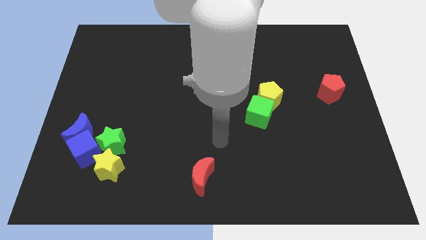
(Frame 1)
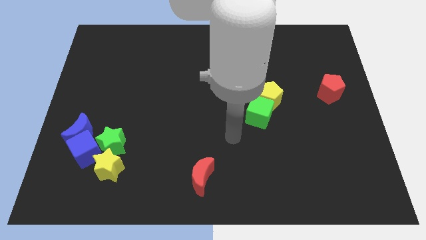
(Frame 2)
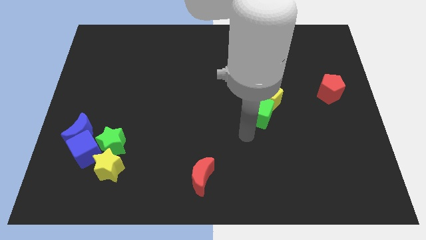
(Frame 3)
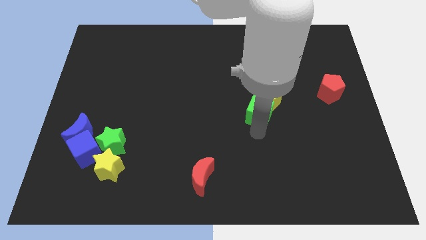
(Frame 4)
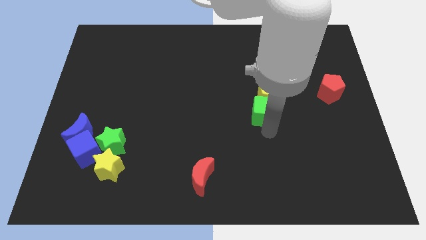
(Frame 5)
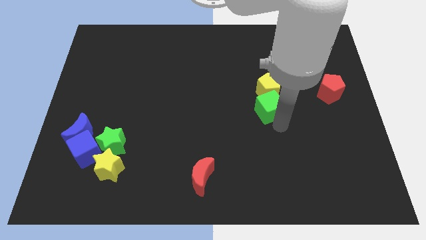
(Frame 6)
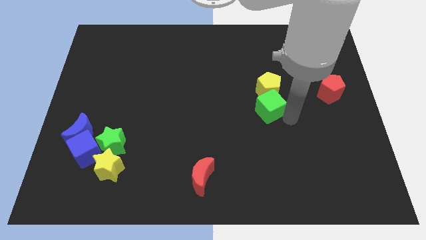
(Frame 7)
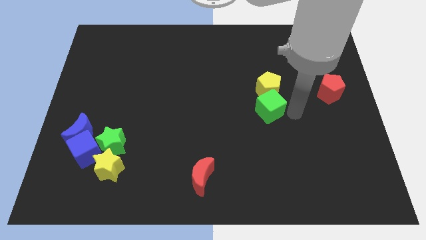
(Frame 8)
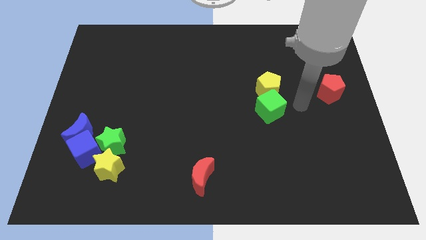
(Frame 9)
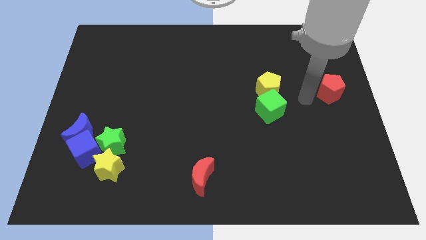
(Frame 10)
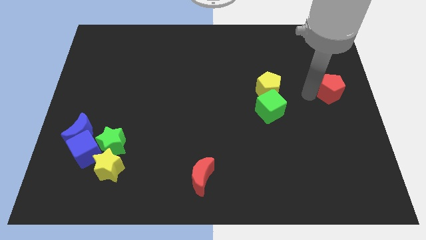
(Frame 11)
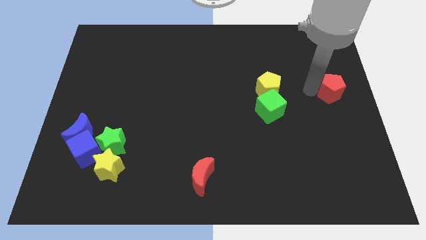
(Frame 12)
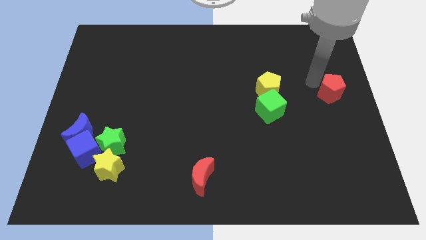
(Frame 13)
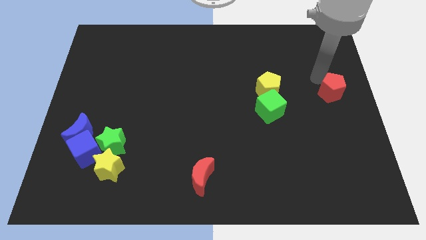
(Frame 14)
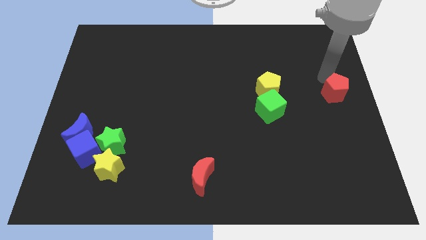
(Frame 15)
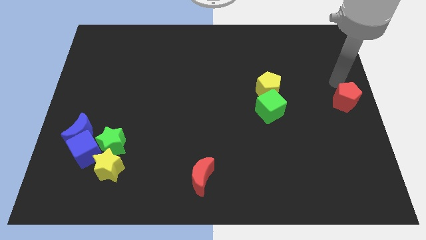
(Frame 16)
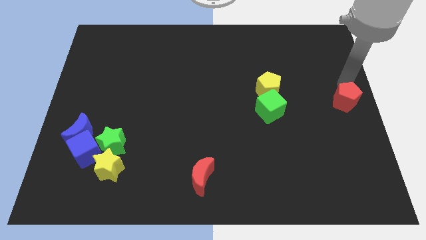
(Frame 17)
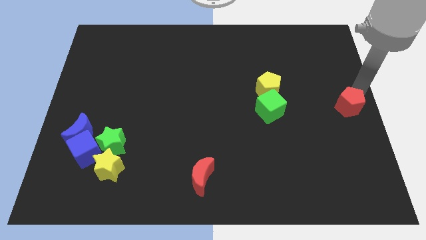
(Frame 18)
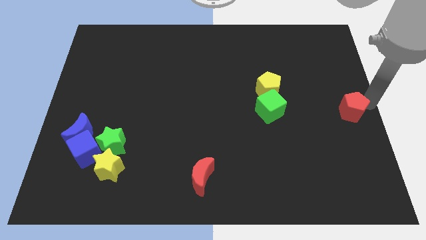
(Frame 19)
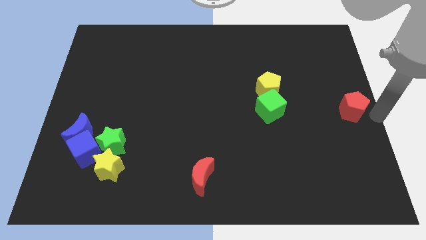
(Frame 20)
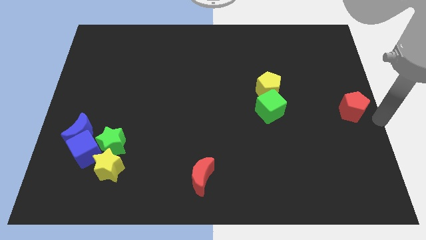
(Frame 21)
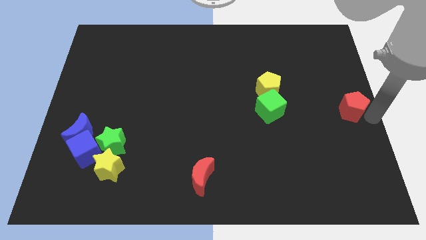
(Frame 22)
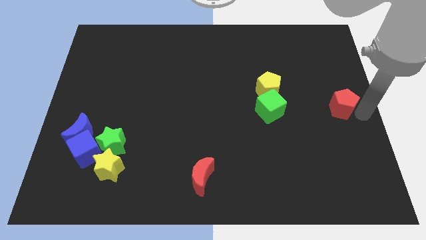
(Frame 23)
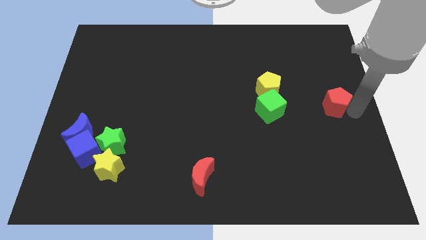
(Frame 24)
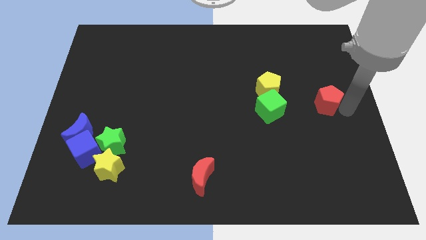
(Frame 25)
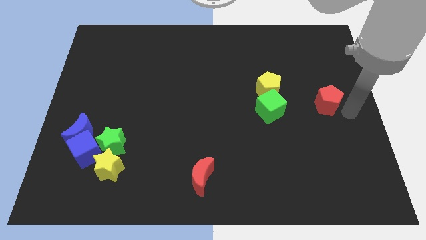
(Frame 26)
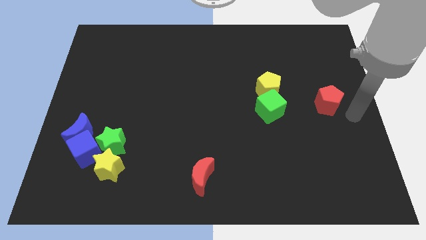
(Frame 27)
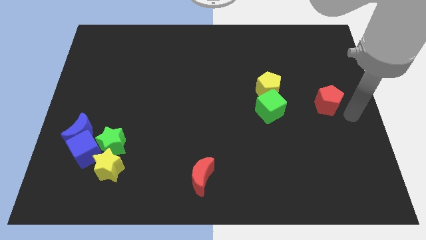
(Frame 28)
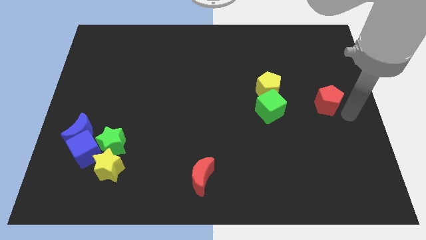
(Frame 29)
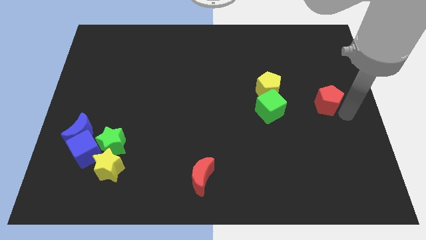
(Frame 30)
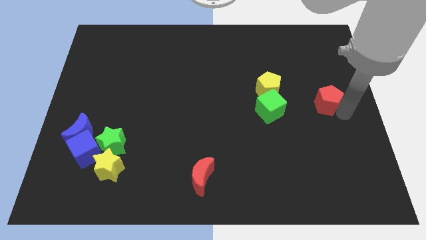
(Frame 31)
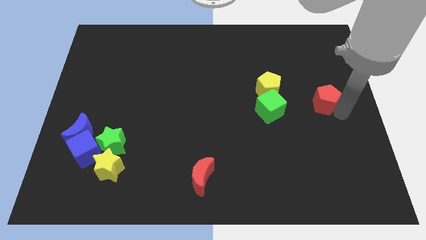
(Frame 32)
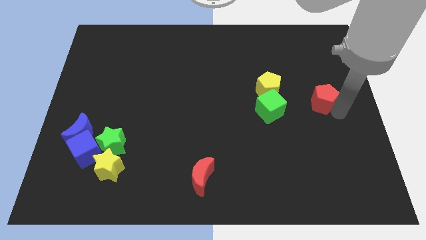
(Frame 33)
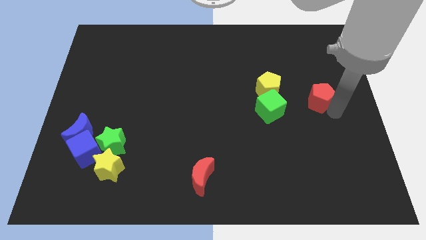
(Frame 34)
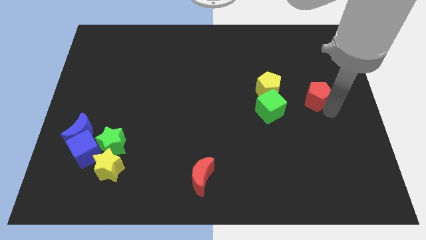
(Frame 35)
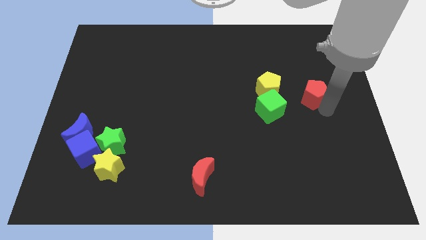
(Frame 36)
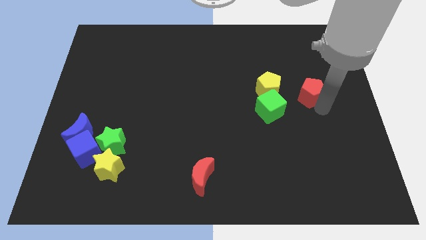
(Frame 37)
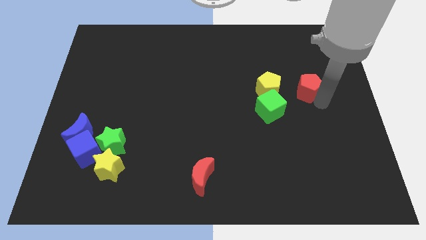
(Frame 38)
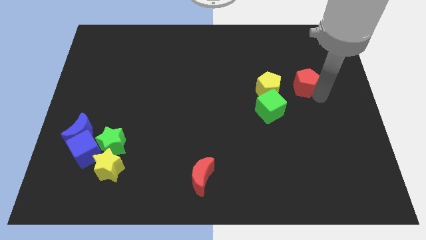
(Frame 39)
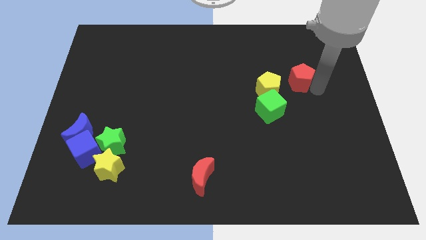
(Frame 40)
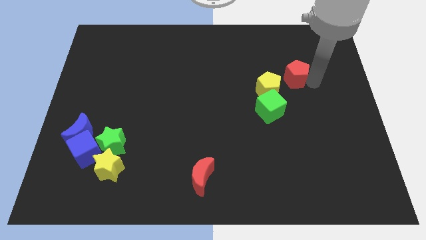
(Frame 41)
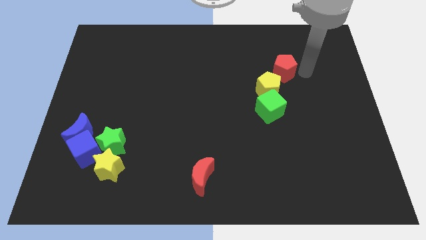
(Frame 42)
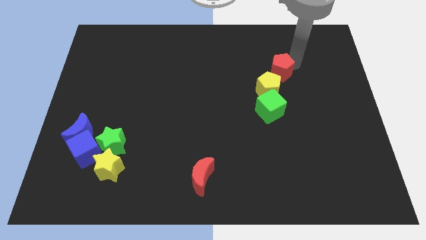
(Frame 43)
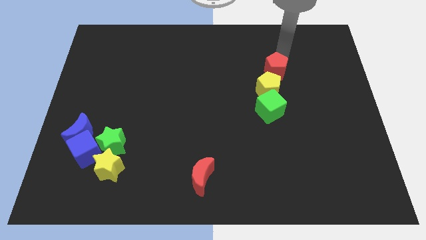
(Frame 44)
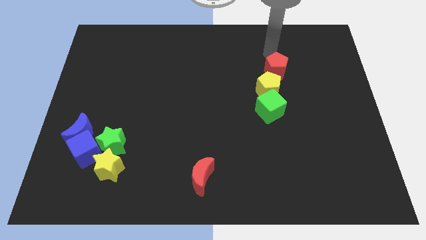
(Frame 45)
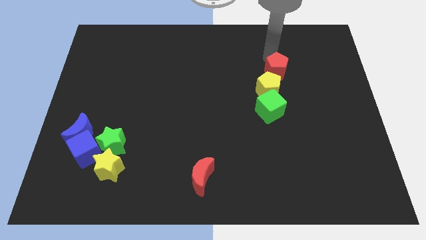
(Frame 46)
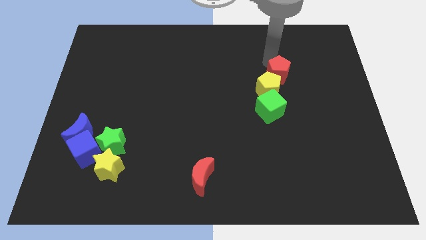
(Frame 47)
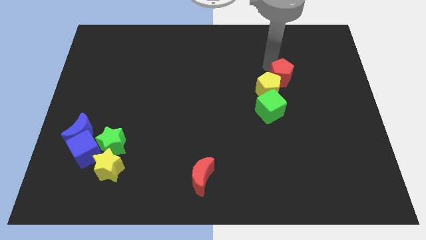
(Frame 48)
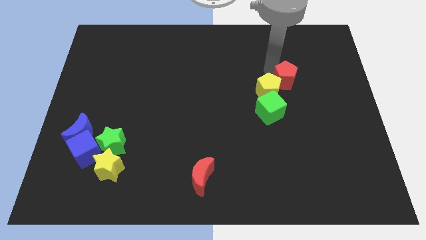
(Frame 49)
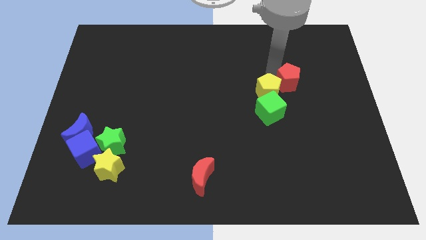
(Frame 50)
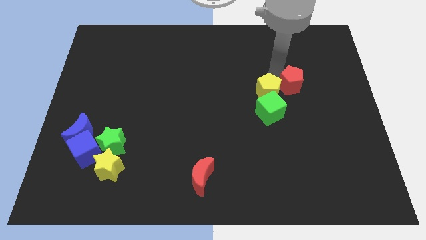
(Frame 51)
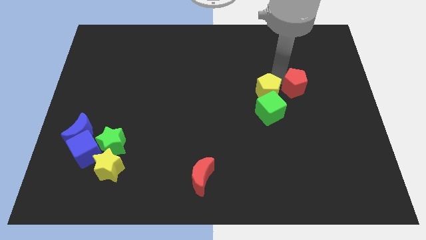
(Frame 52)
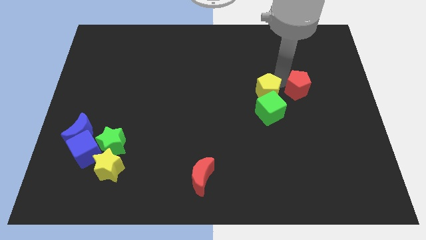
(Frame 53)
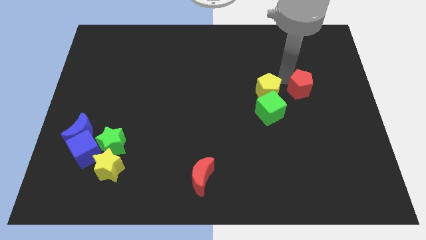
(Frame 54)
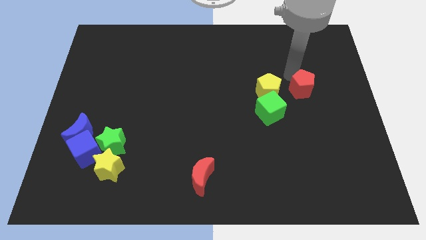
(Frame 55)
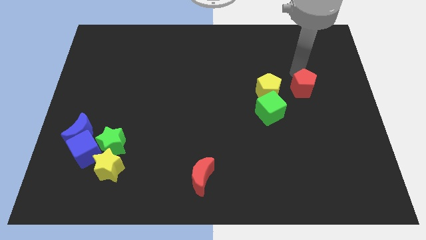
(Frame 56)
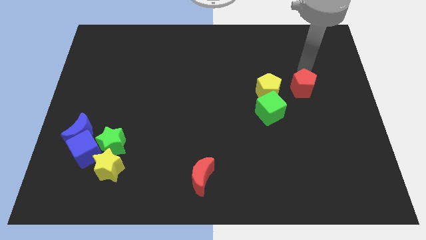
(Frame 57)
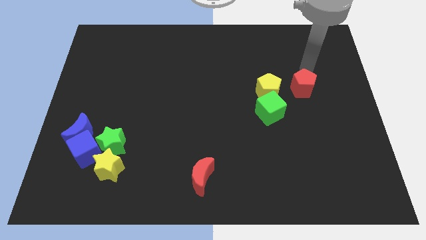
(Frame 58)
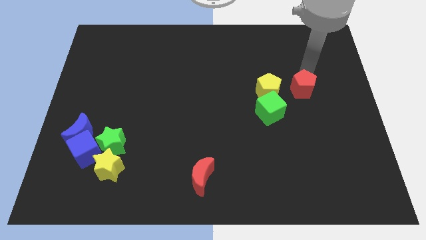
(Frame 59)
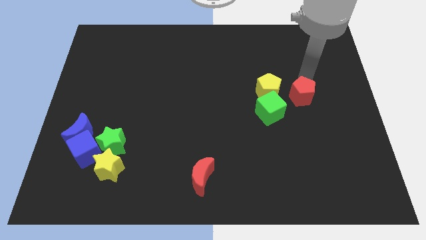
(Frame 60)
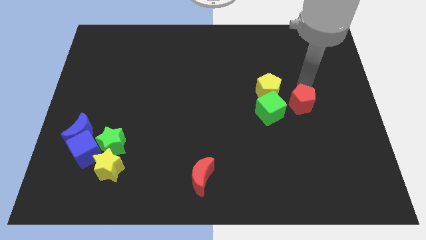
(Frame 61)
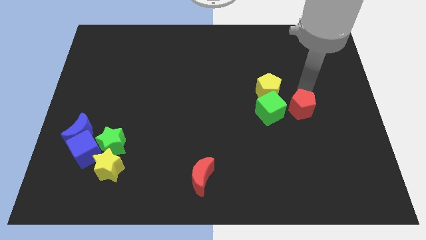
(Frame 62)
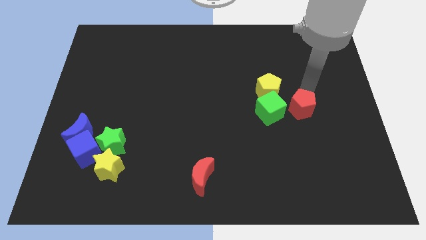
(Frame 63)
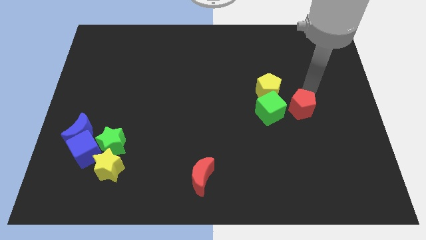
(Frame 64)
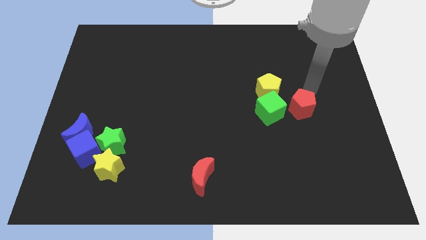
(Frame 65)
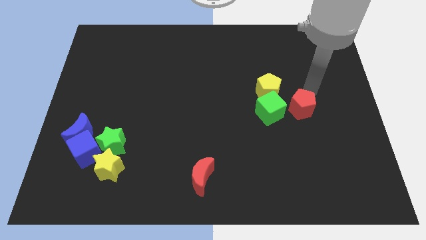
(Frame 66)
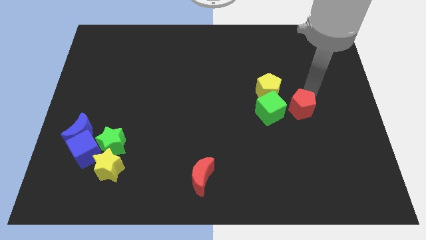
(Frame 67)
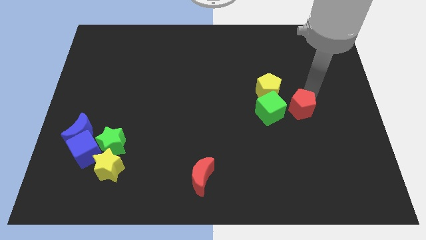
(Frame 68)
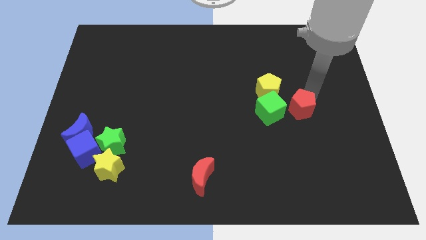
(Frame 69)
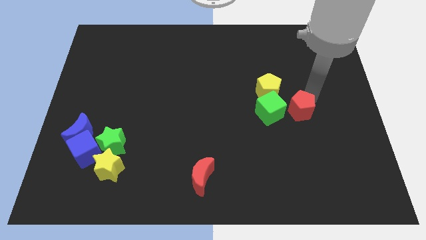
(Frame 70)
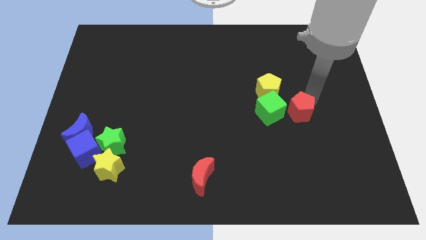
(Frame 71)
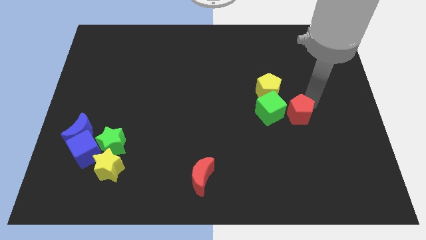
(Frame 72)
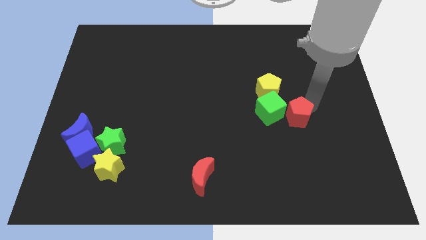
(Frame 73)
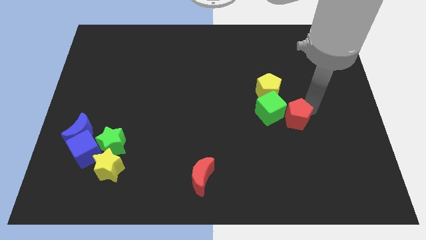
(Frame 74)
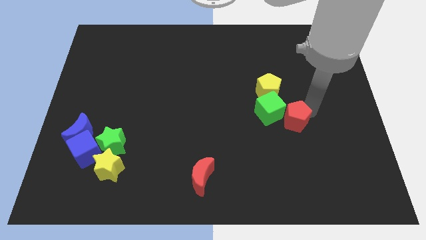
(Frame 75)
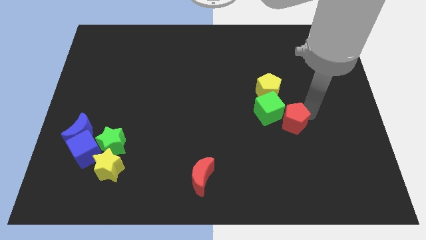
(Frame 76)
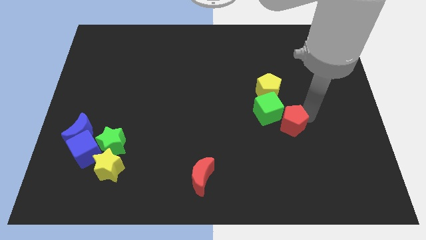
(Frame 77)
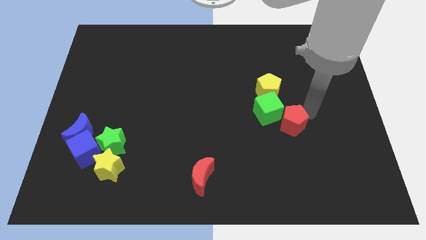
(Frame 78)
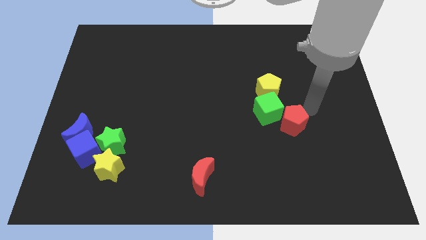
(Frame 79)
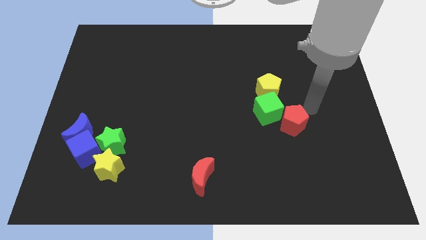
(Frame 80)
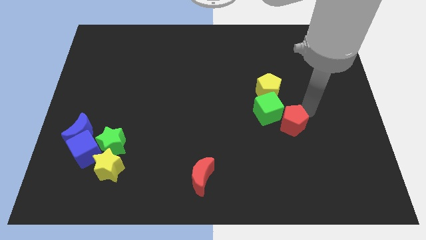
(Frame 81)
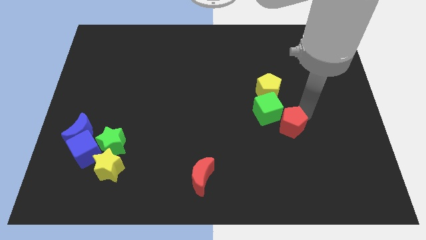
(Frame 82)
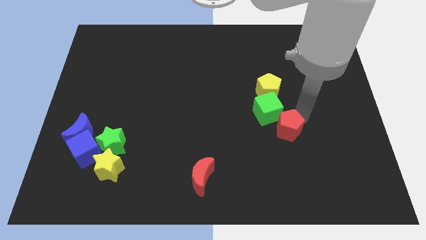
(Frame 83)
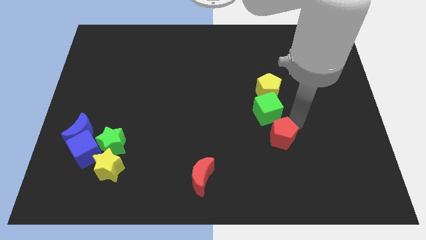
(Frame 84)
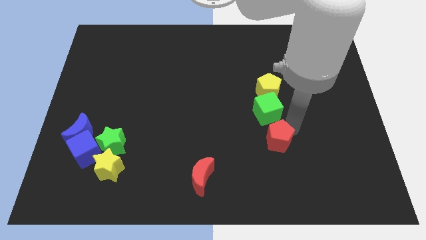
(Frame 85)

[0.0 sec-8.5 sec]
slide the red pentagon down and to the left diagonally
